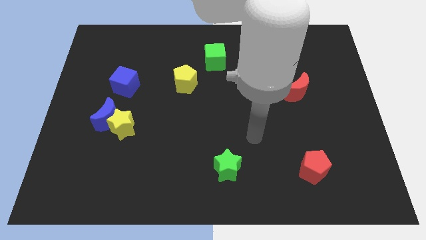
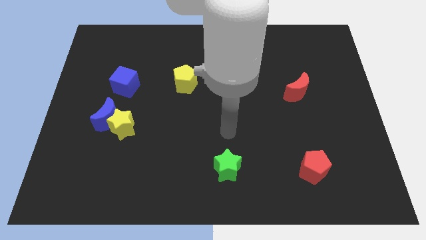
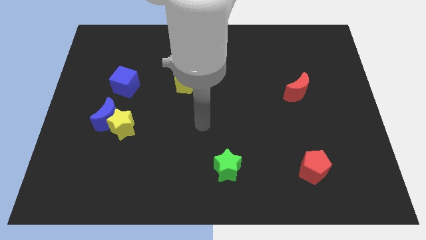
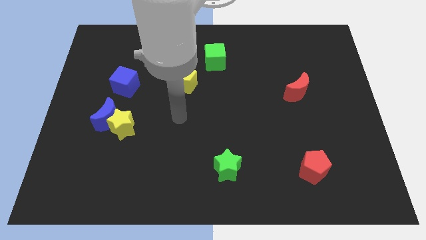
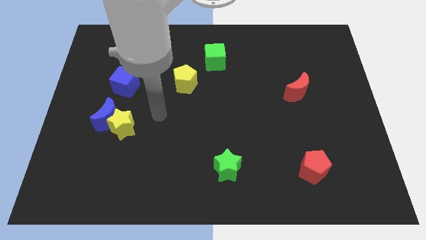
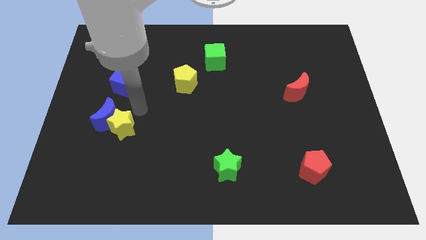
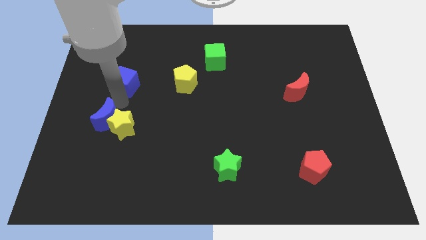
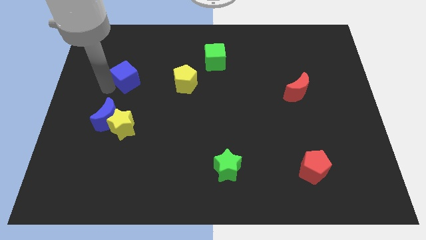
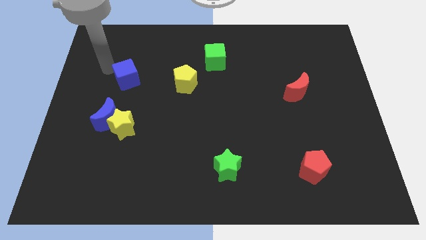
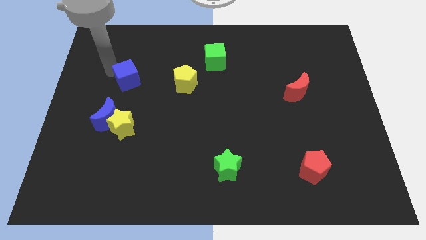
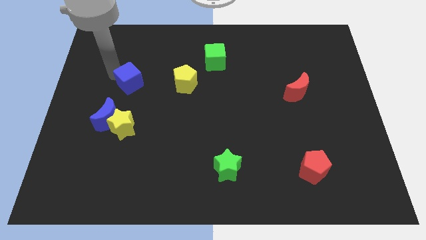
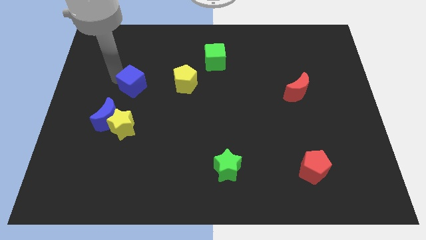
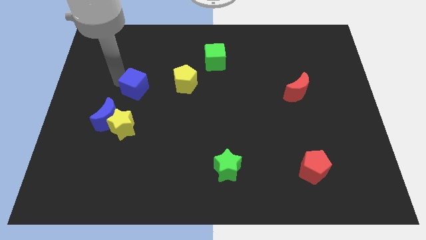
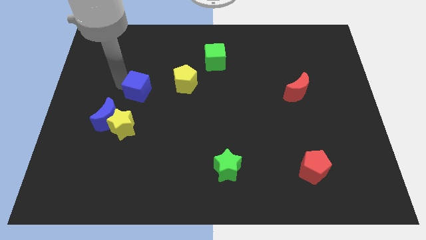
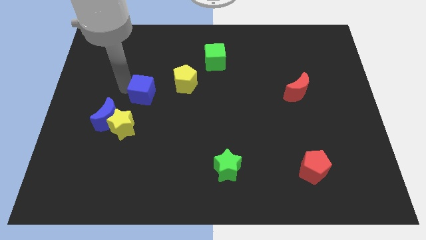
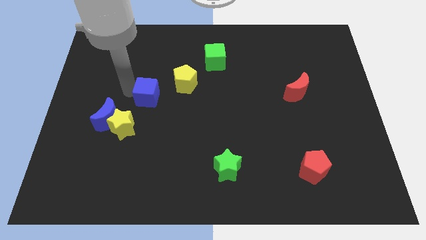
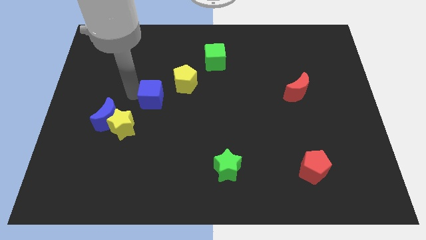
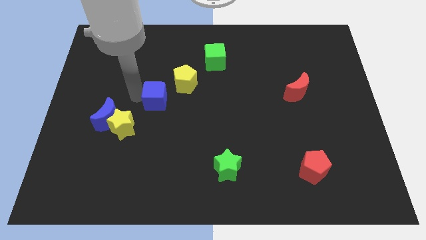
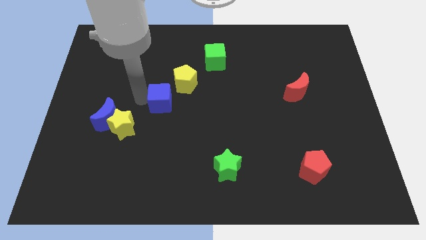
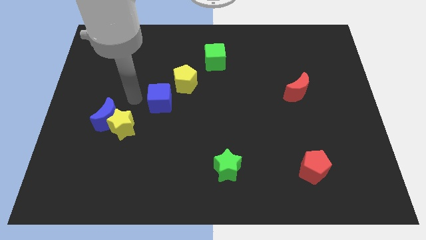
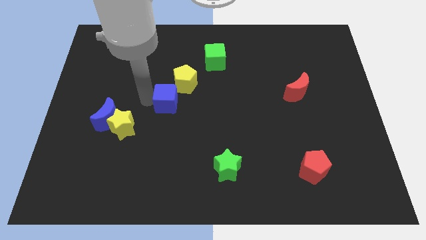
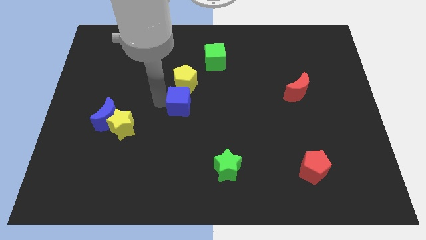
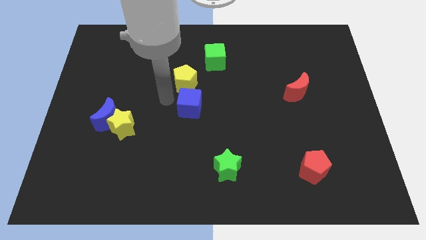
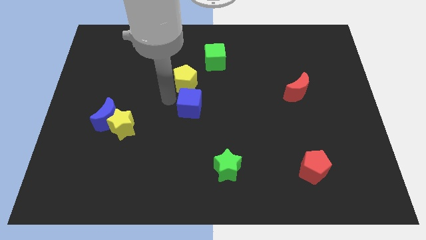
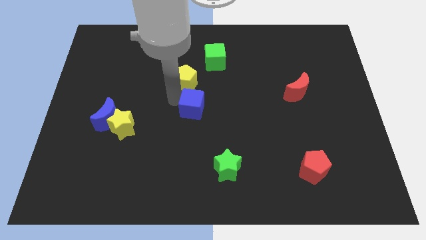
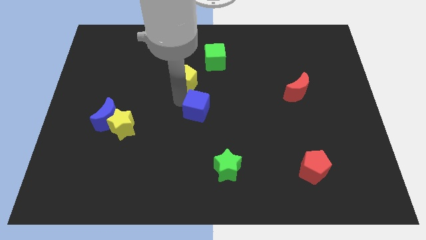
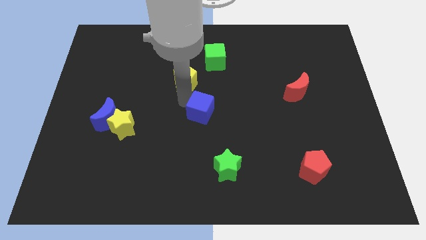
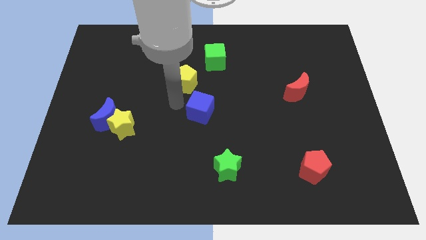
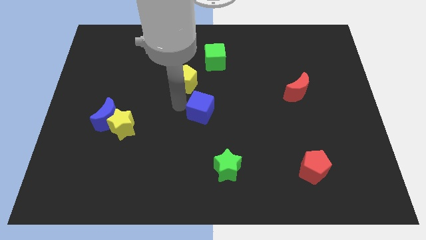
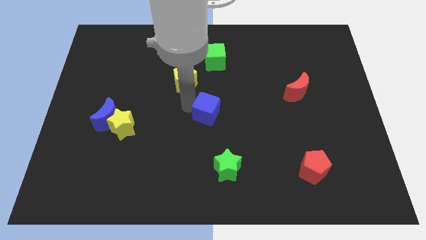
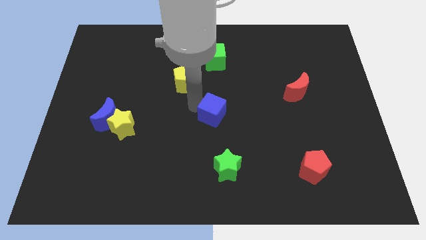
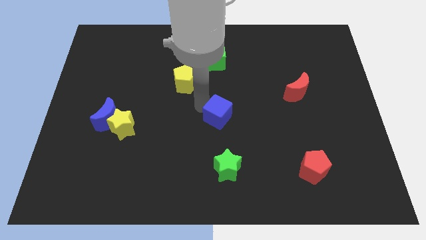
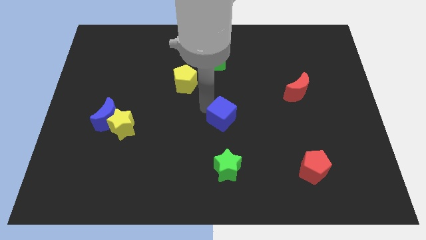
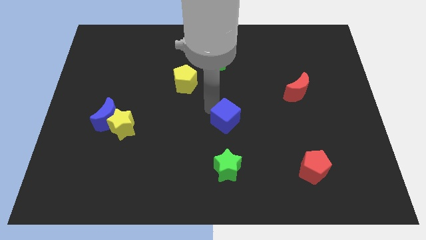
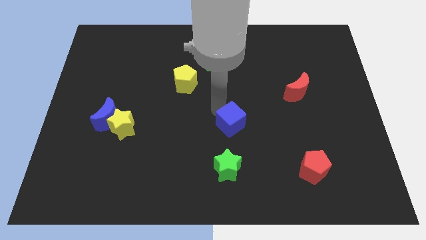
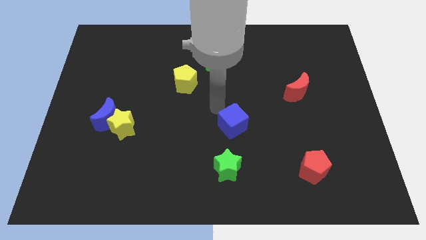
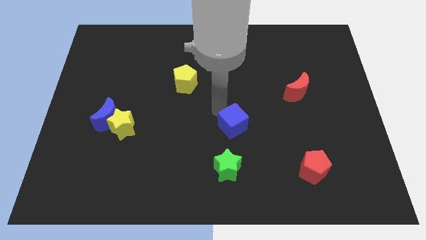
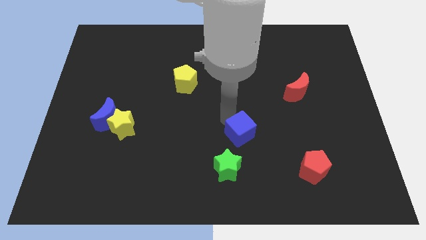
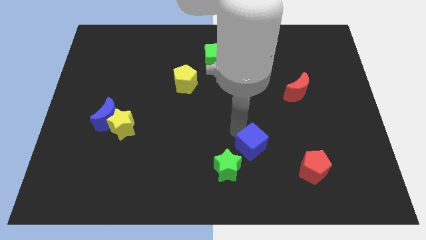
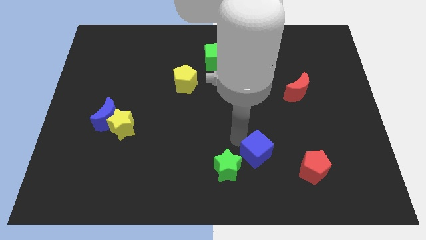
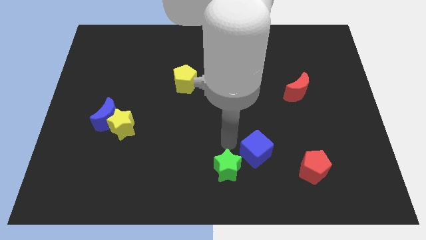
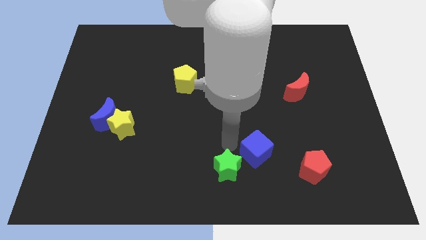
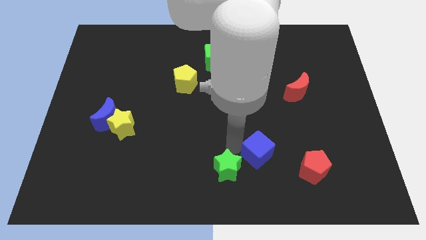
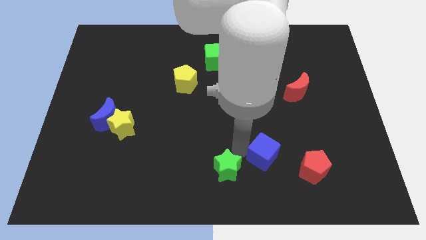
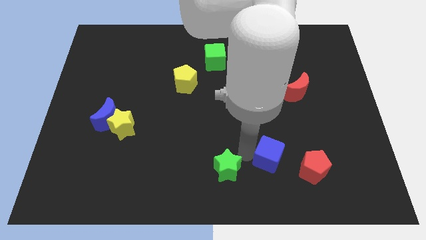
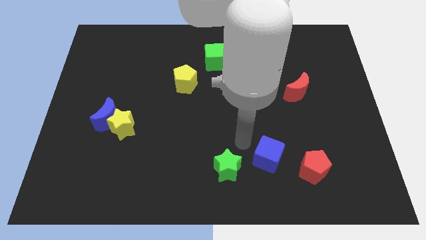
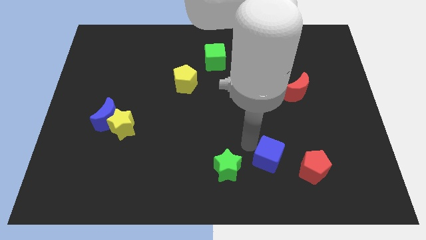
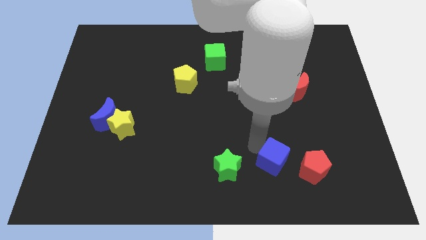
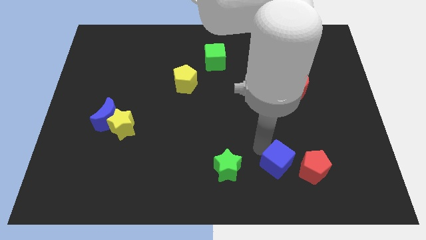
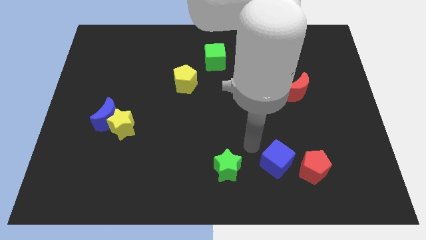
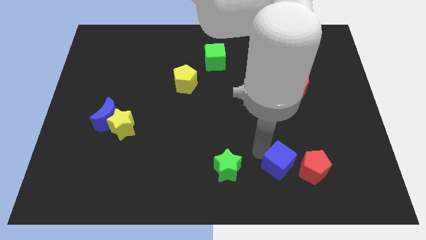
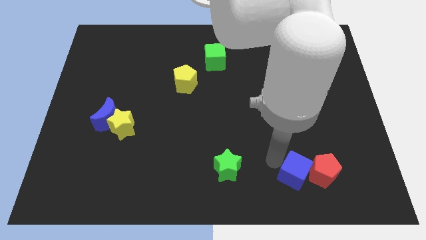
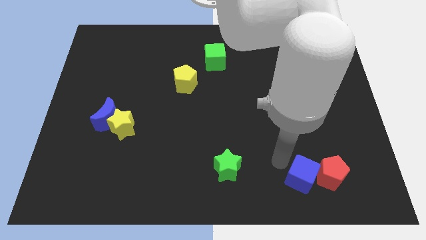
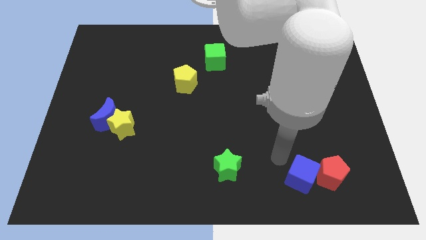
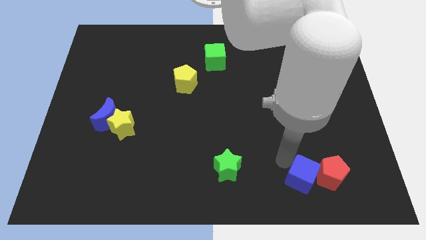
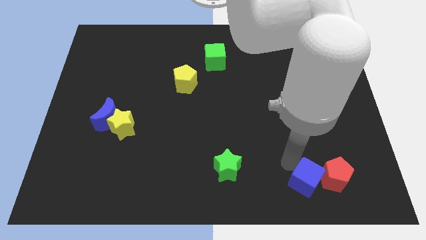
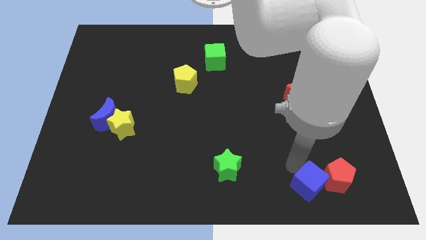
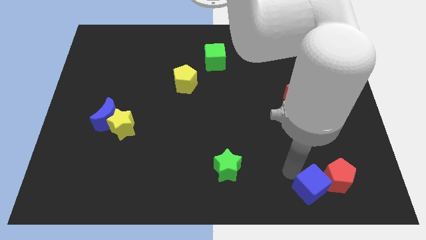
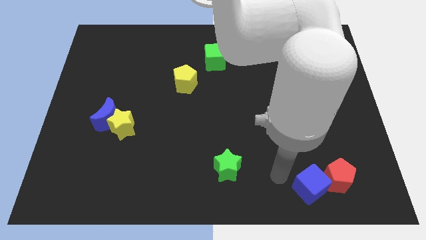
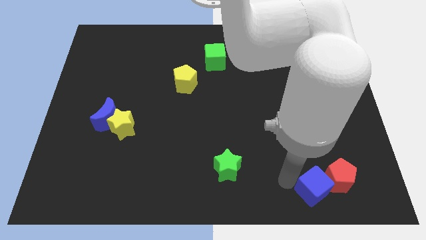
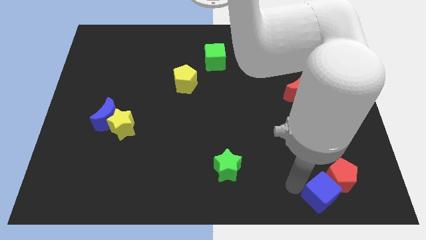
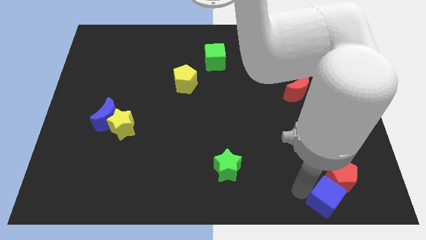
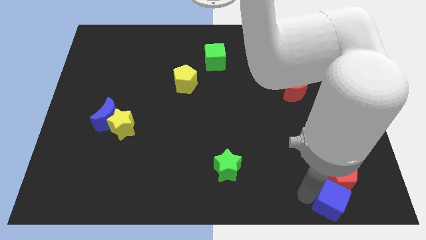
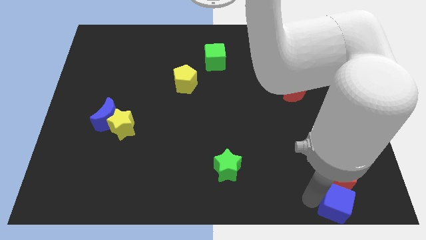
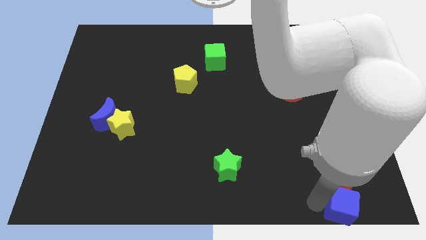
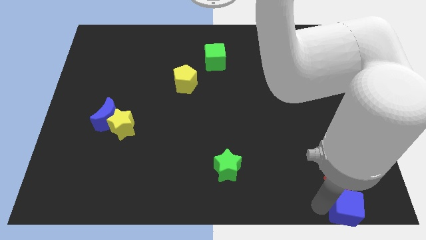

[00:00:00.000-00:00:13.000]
move the blue cube to the bottom right of the board

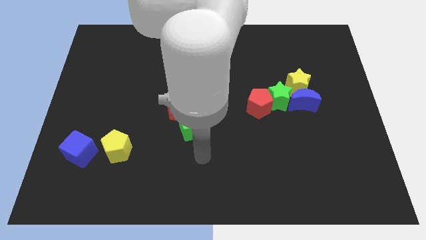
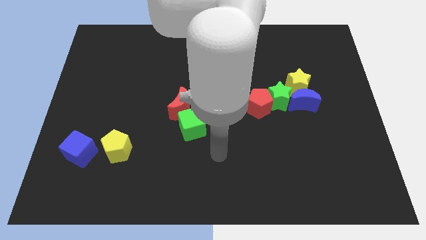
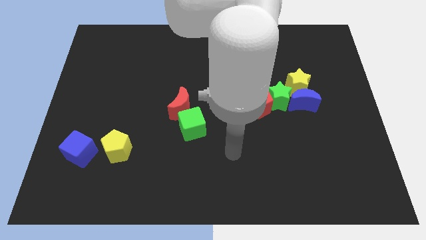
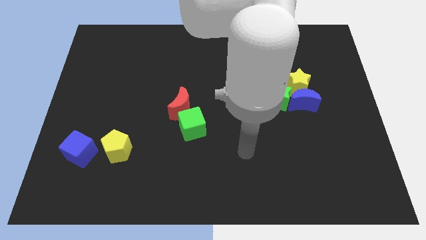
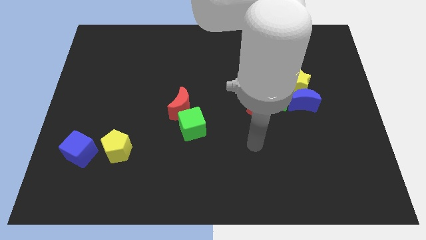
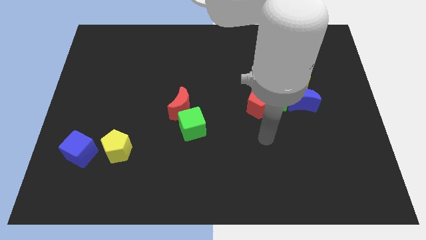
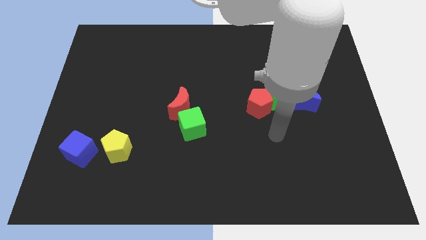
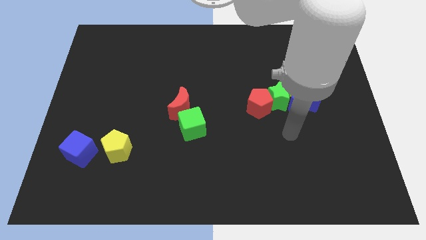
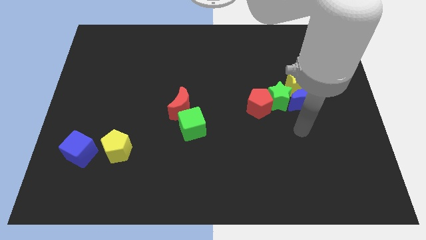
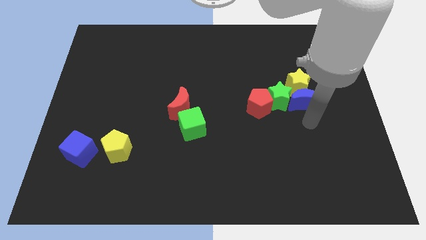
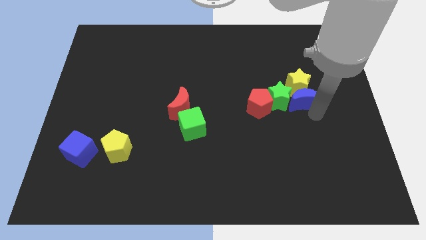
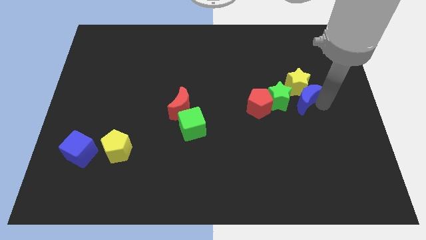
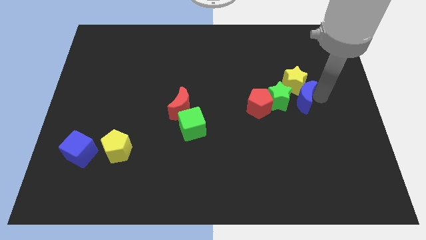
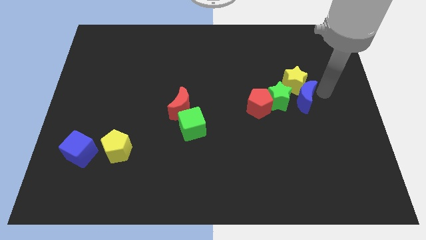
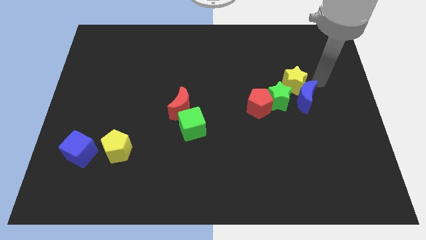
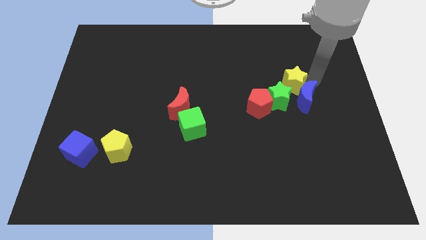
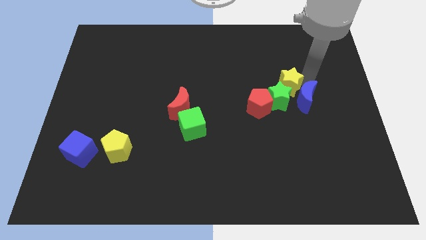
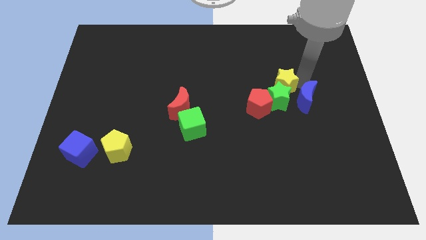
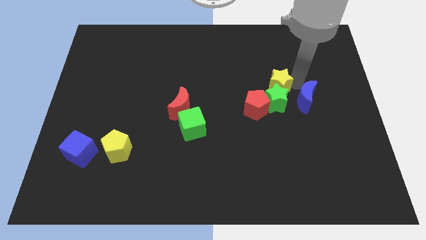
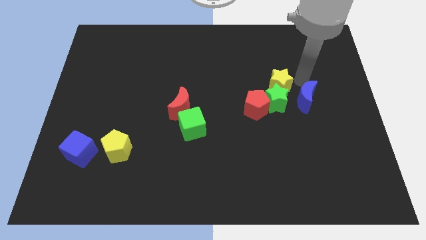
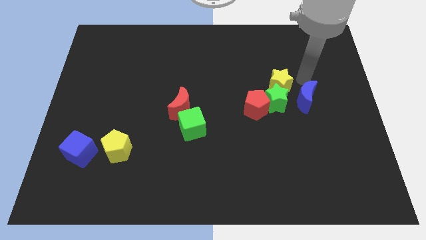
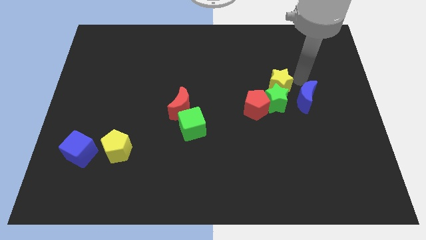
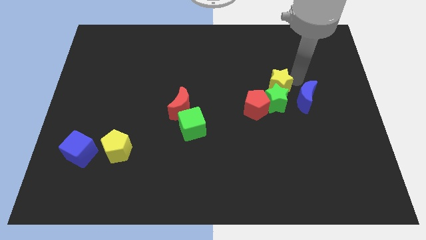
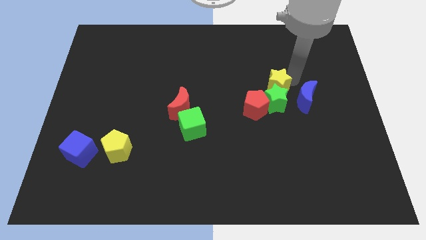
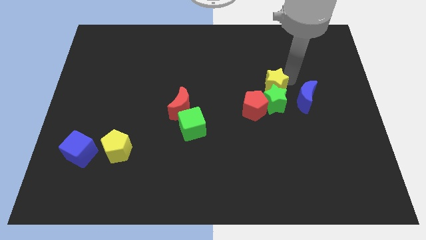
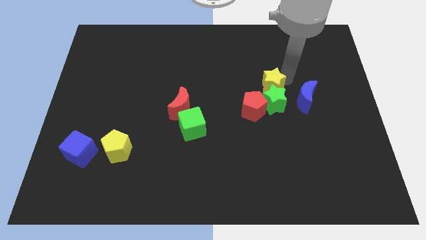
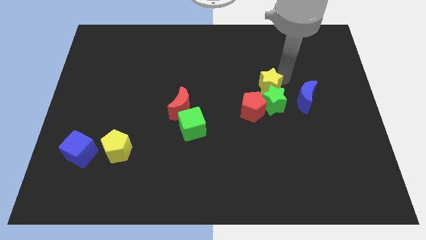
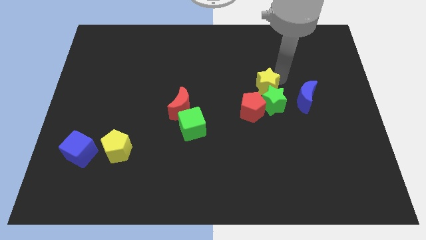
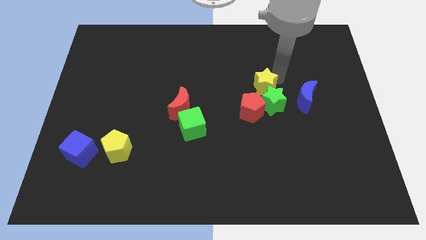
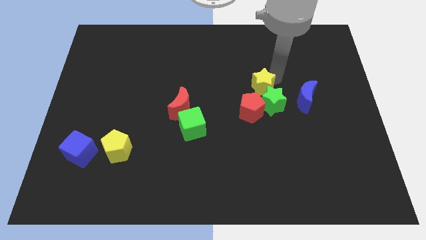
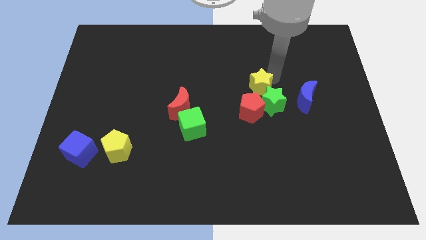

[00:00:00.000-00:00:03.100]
slide the yellow star to the center
